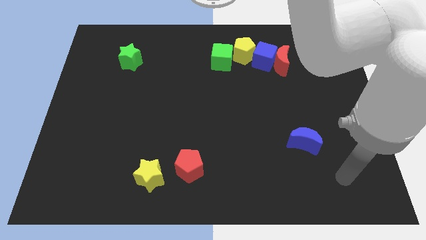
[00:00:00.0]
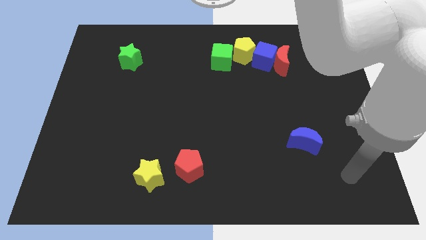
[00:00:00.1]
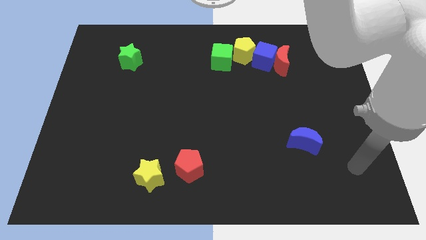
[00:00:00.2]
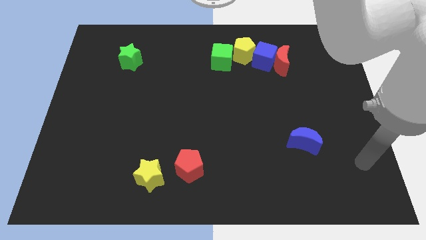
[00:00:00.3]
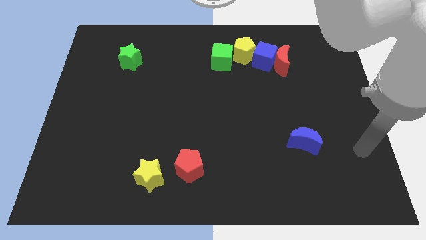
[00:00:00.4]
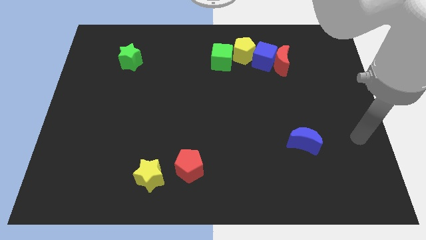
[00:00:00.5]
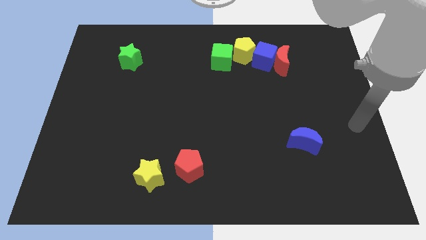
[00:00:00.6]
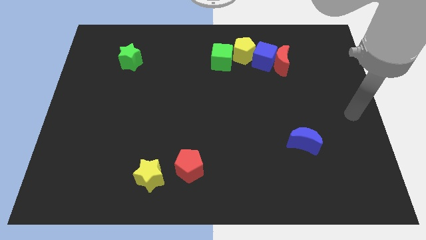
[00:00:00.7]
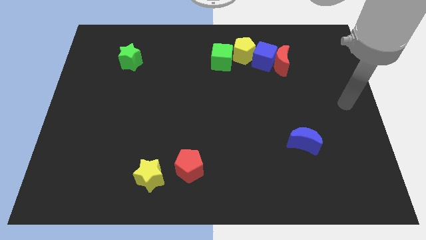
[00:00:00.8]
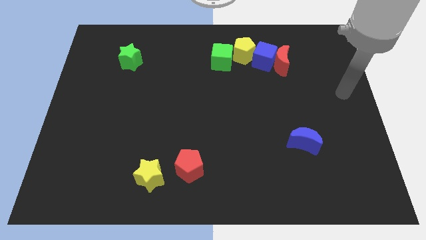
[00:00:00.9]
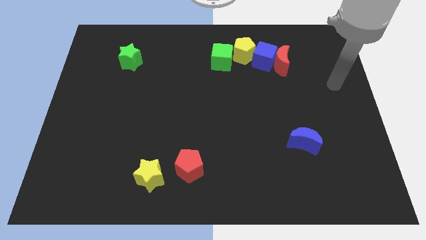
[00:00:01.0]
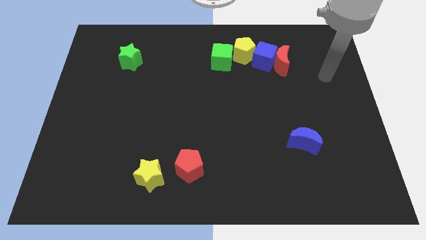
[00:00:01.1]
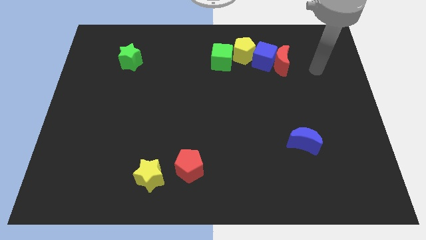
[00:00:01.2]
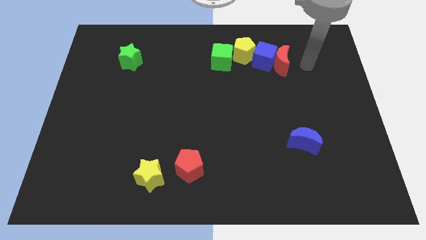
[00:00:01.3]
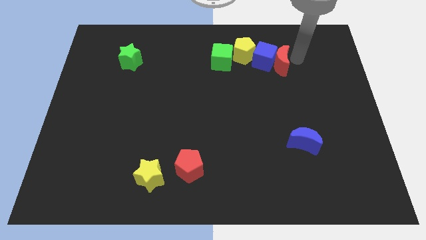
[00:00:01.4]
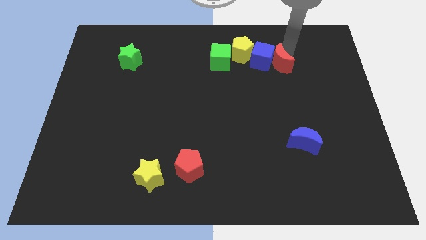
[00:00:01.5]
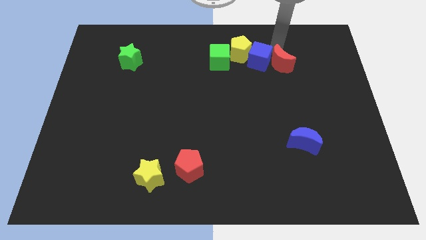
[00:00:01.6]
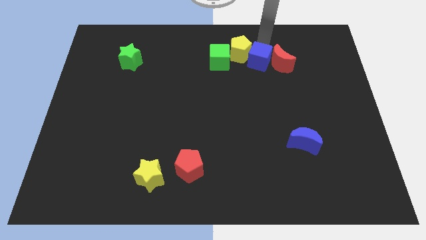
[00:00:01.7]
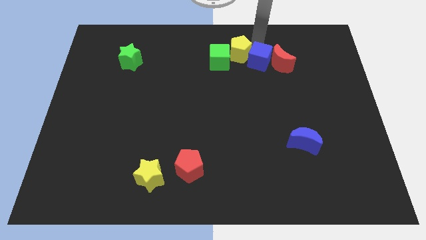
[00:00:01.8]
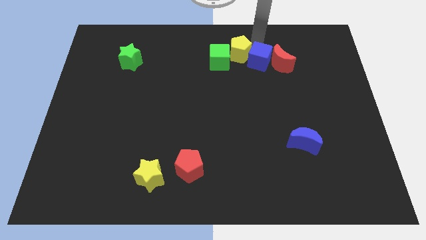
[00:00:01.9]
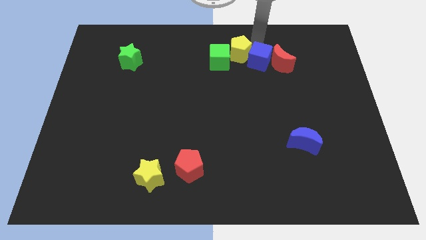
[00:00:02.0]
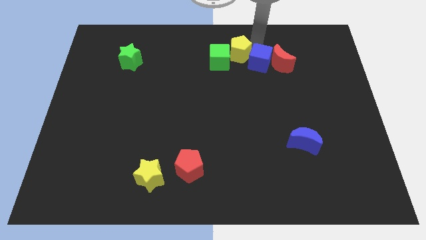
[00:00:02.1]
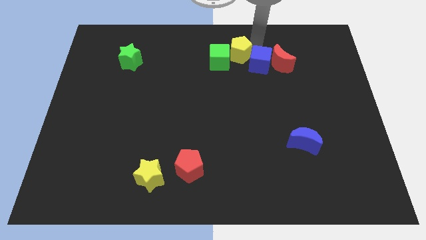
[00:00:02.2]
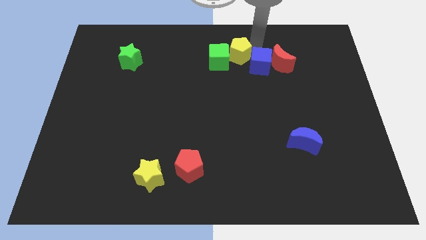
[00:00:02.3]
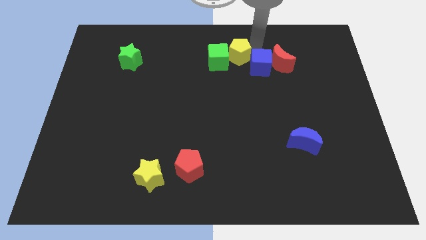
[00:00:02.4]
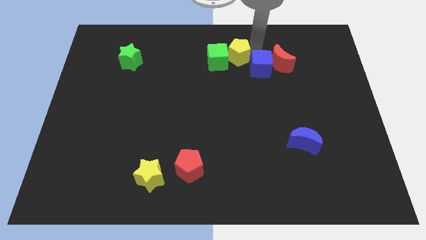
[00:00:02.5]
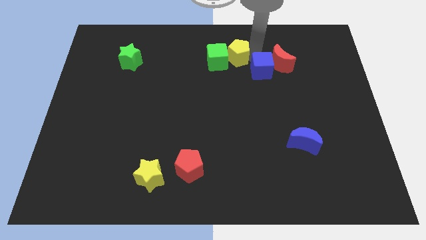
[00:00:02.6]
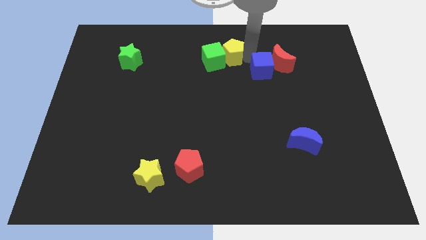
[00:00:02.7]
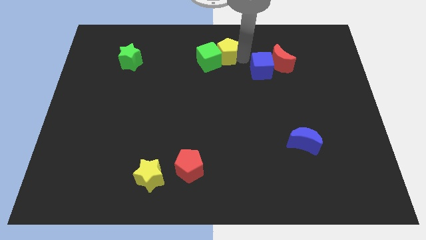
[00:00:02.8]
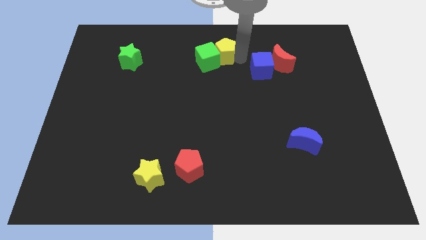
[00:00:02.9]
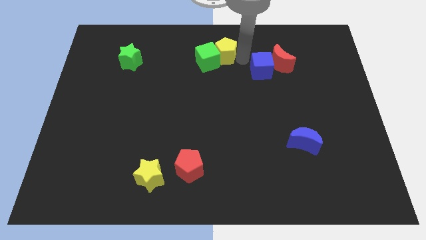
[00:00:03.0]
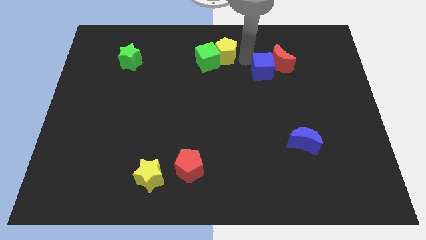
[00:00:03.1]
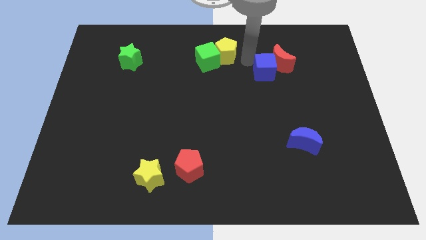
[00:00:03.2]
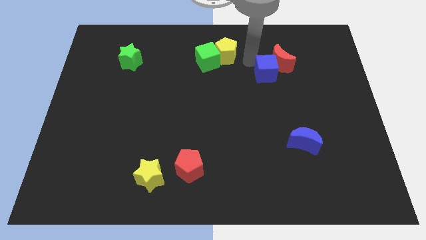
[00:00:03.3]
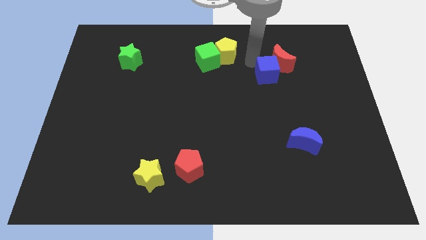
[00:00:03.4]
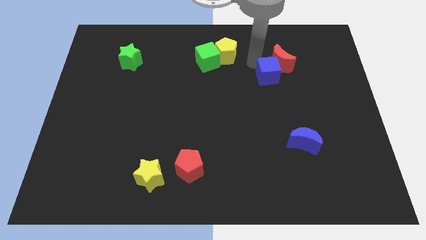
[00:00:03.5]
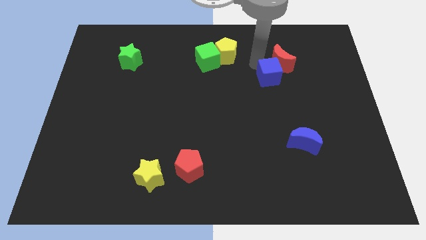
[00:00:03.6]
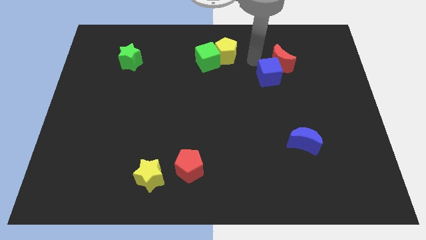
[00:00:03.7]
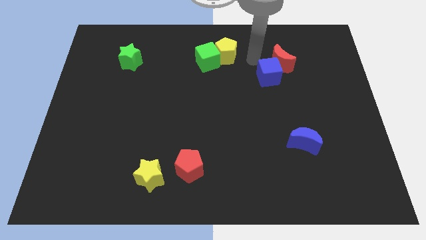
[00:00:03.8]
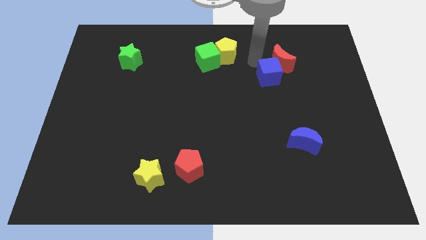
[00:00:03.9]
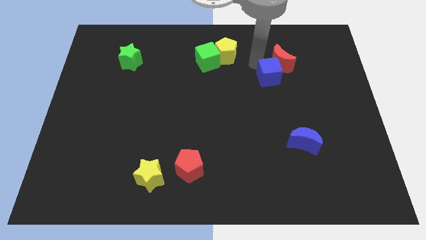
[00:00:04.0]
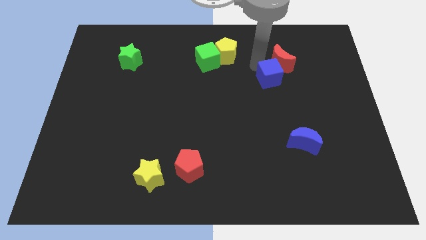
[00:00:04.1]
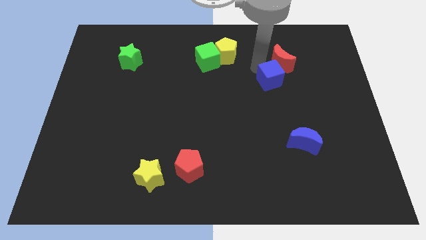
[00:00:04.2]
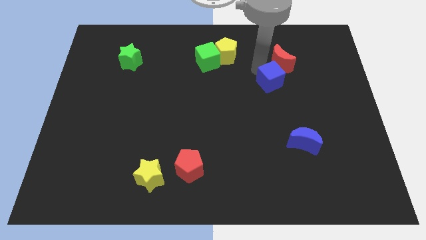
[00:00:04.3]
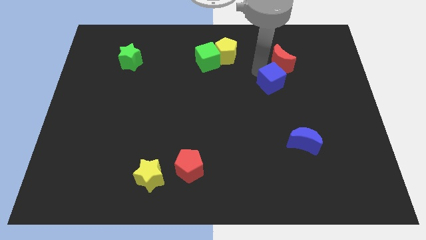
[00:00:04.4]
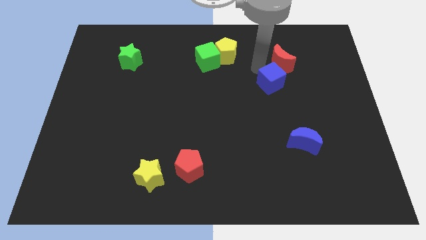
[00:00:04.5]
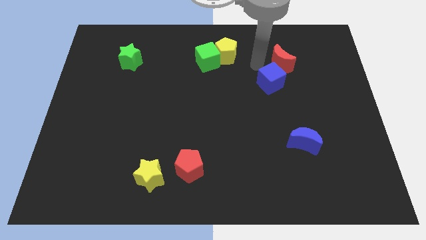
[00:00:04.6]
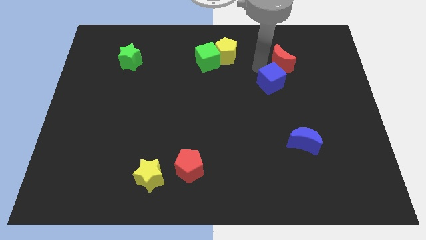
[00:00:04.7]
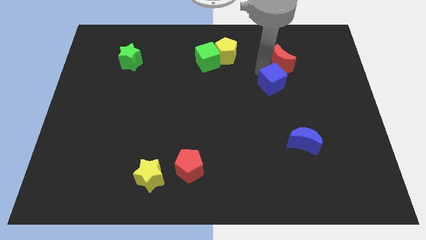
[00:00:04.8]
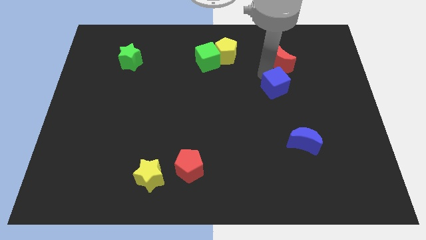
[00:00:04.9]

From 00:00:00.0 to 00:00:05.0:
pull the blue cube apart from the red moon and yellow pentagon

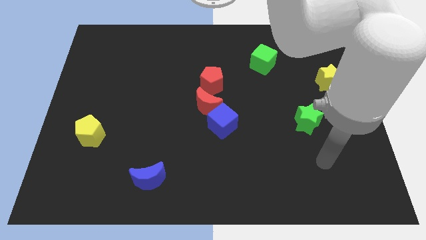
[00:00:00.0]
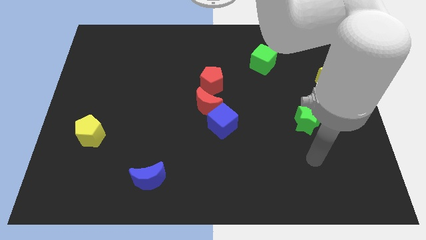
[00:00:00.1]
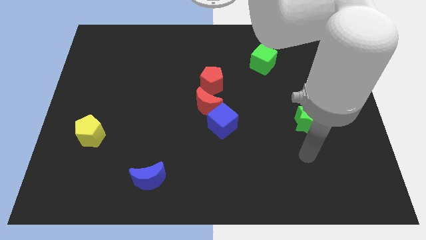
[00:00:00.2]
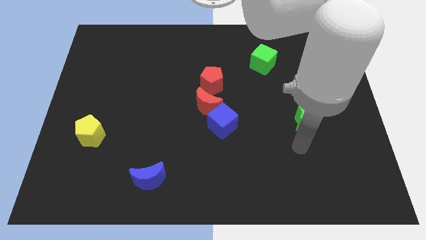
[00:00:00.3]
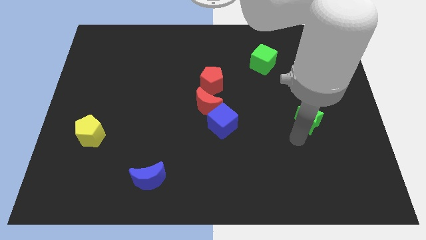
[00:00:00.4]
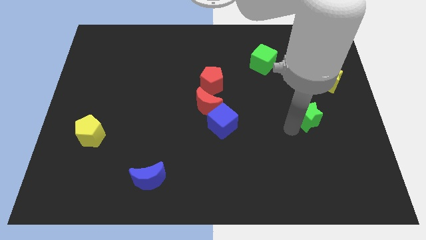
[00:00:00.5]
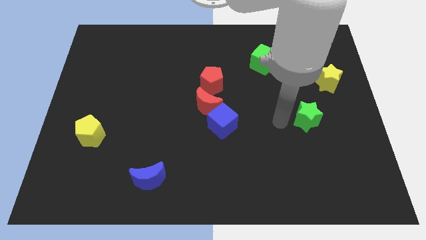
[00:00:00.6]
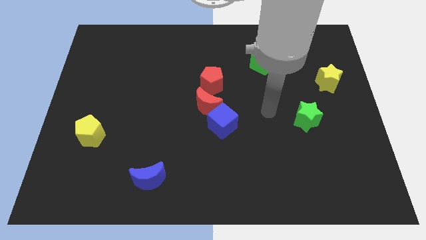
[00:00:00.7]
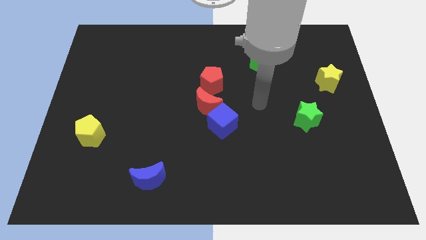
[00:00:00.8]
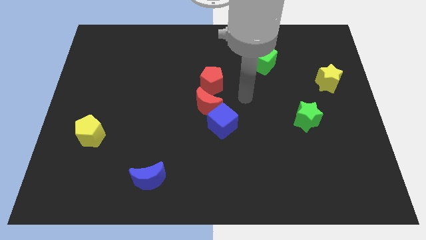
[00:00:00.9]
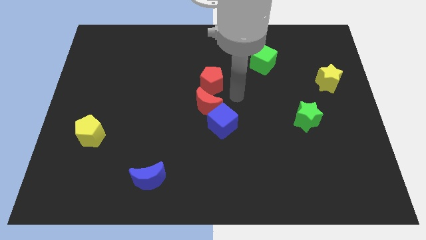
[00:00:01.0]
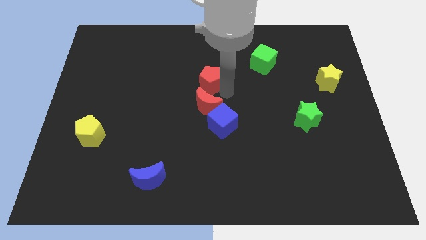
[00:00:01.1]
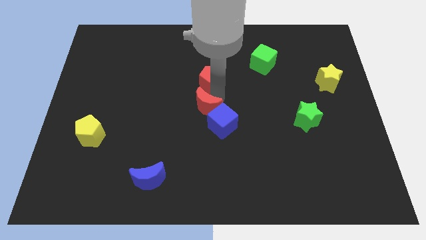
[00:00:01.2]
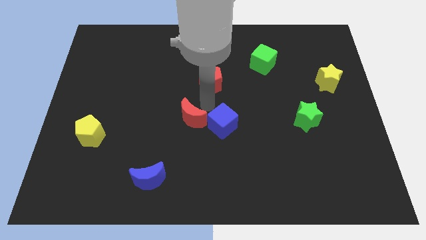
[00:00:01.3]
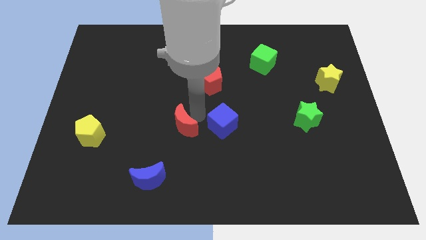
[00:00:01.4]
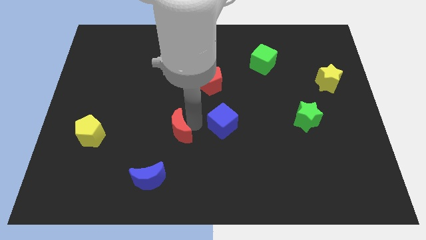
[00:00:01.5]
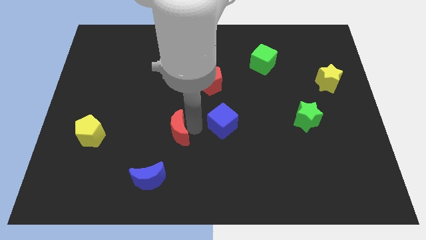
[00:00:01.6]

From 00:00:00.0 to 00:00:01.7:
move the blue cube away from the red moon

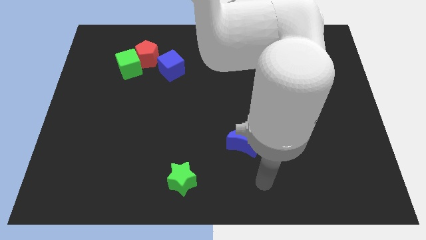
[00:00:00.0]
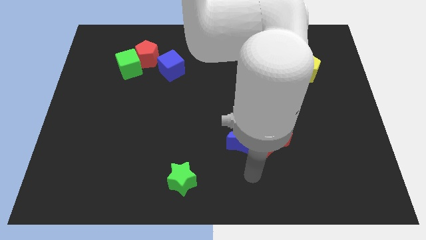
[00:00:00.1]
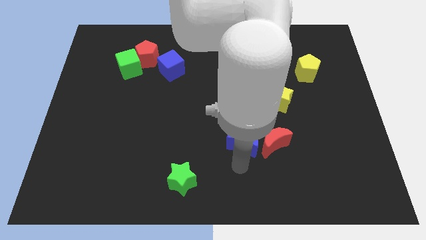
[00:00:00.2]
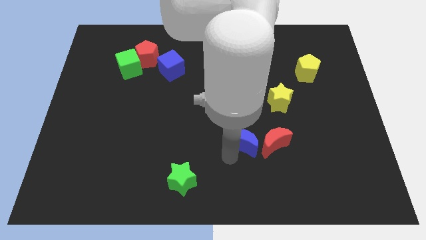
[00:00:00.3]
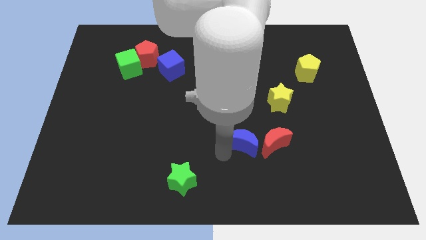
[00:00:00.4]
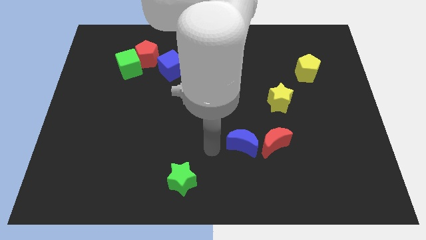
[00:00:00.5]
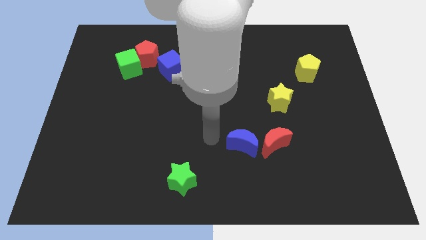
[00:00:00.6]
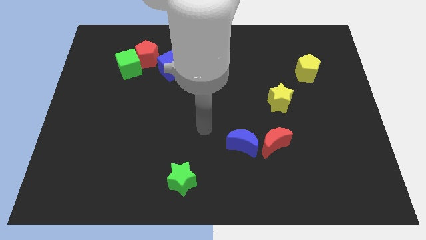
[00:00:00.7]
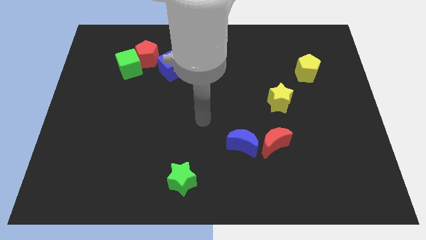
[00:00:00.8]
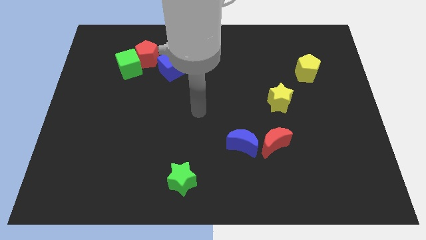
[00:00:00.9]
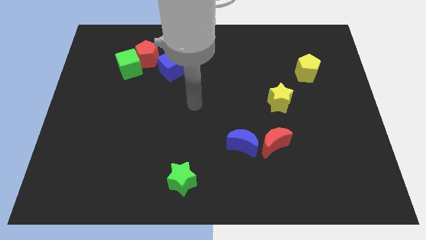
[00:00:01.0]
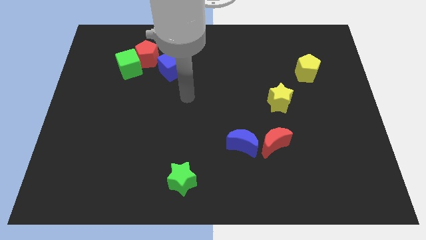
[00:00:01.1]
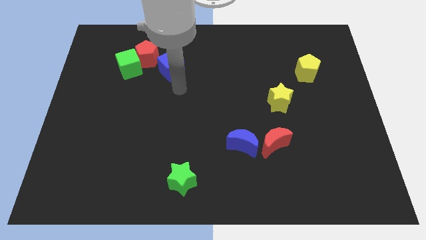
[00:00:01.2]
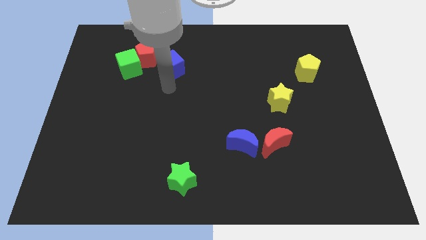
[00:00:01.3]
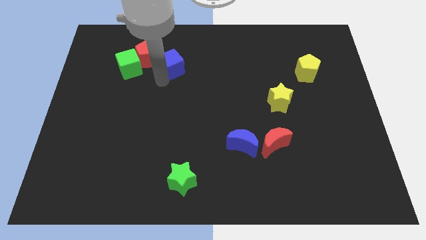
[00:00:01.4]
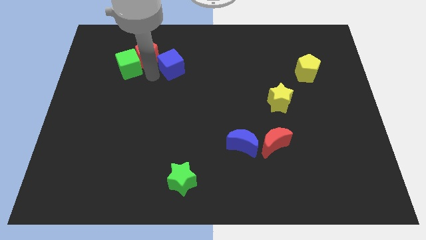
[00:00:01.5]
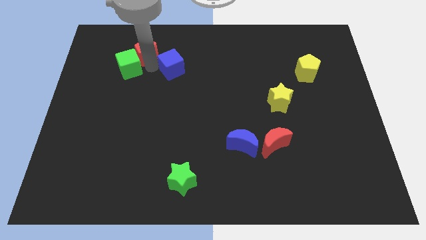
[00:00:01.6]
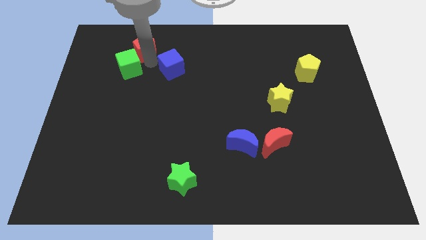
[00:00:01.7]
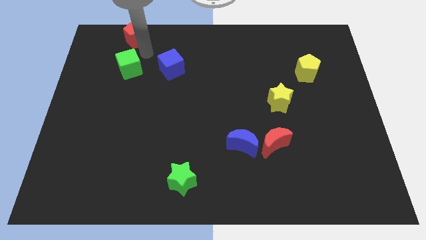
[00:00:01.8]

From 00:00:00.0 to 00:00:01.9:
separate the green cube from the red pentagon

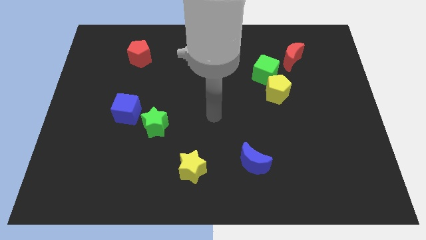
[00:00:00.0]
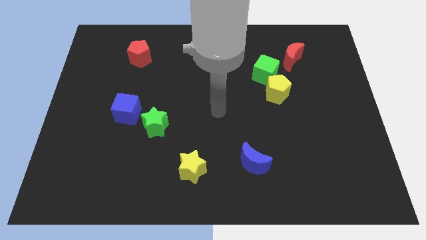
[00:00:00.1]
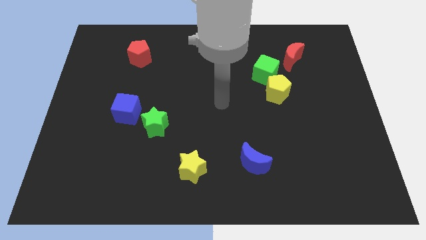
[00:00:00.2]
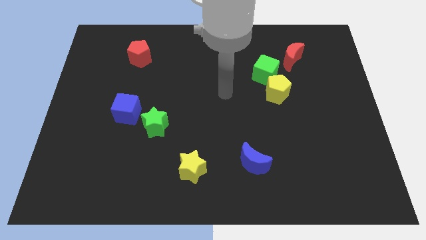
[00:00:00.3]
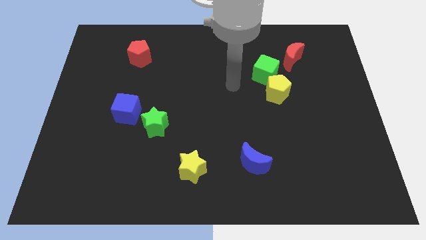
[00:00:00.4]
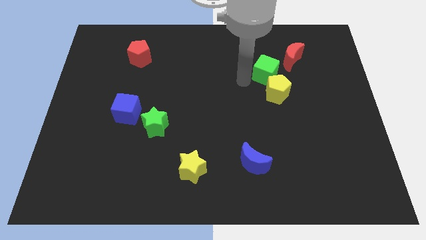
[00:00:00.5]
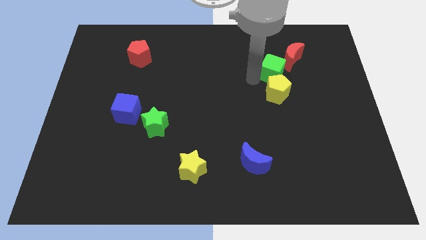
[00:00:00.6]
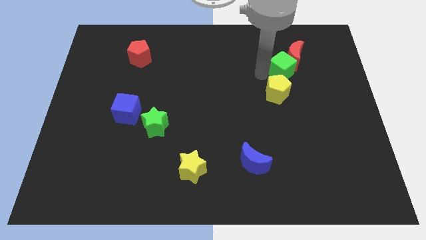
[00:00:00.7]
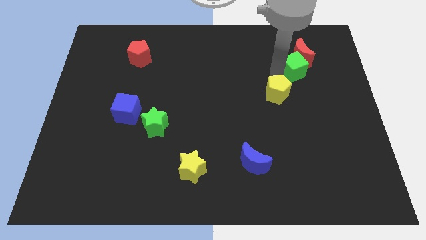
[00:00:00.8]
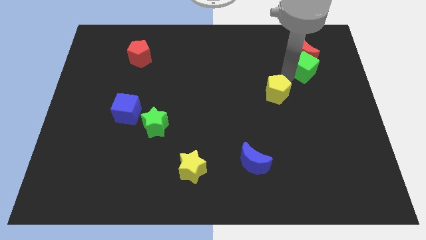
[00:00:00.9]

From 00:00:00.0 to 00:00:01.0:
move the yellow pentagon away from the green cube
